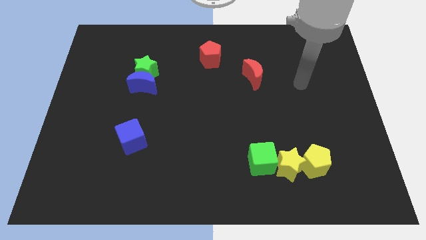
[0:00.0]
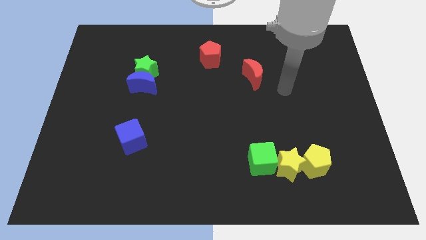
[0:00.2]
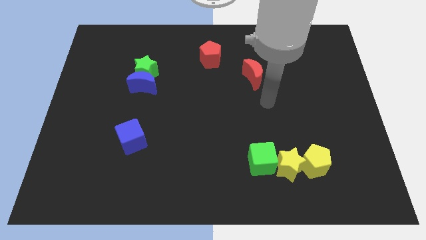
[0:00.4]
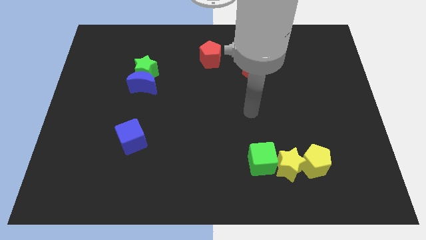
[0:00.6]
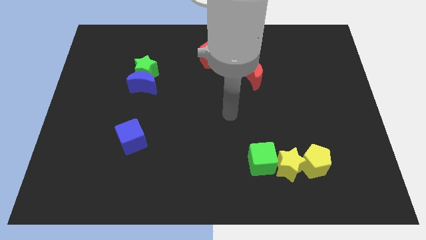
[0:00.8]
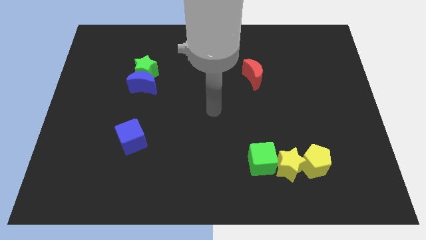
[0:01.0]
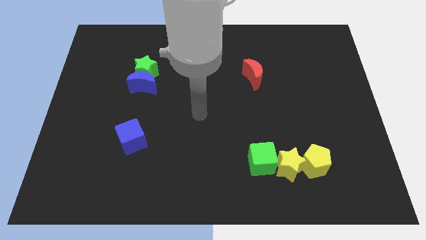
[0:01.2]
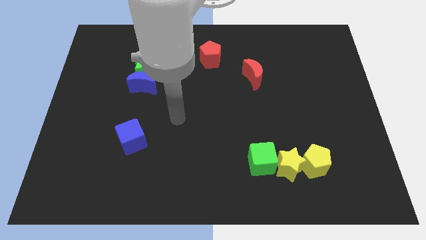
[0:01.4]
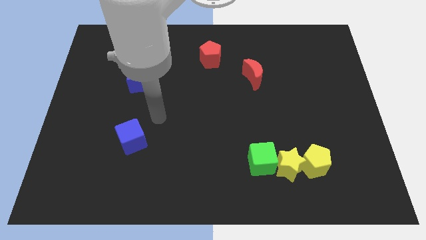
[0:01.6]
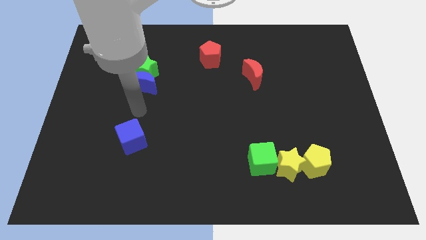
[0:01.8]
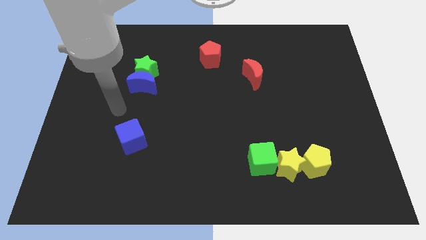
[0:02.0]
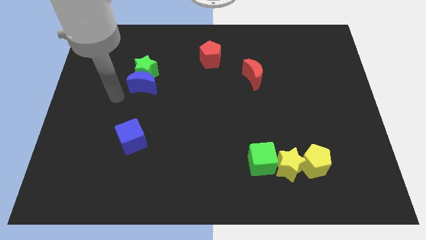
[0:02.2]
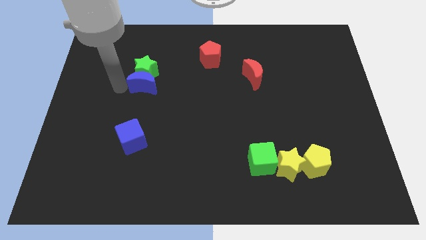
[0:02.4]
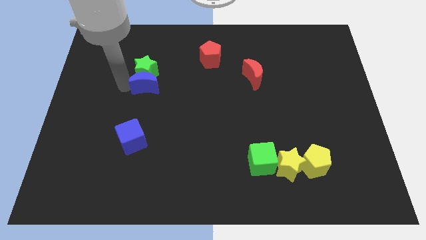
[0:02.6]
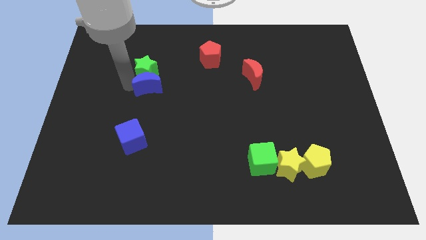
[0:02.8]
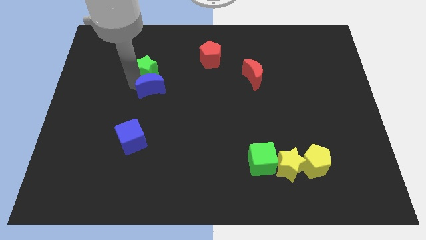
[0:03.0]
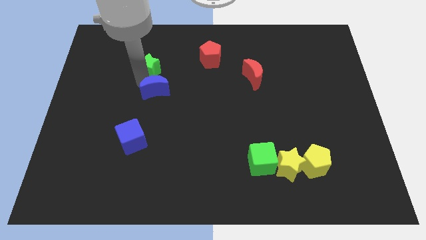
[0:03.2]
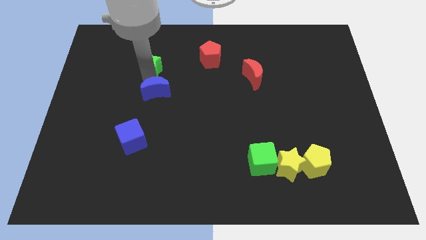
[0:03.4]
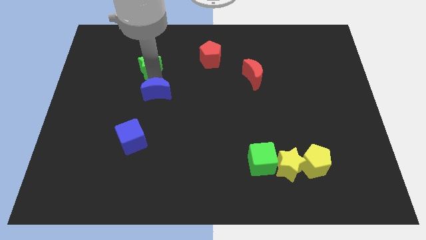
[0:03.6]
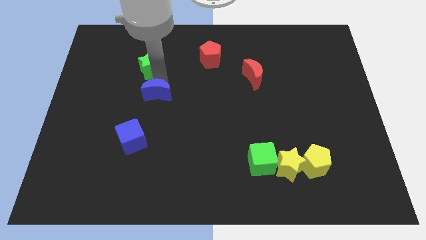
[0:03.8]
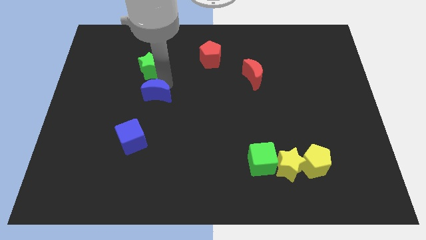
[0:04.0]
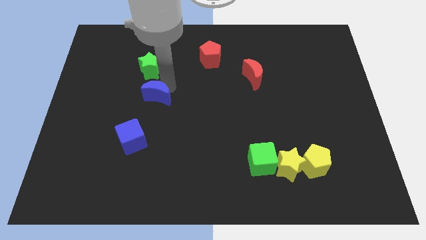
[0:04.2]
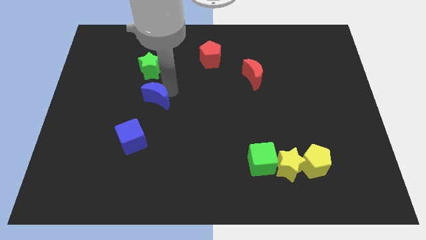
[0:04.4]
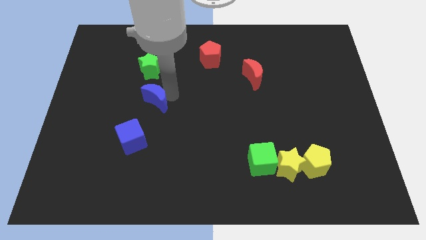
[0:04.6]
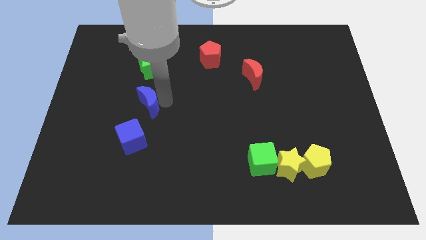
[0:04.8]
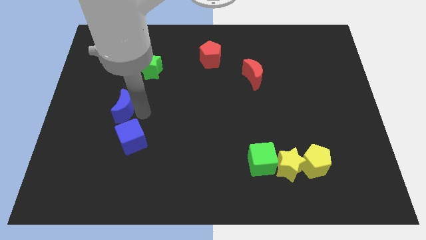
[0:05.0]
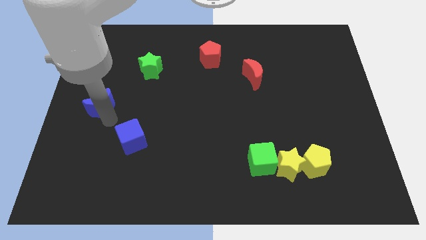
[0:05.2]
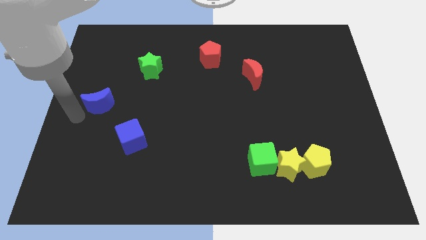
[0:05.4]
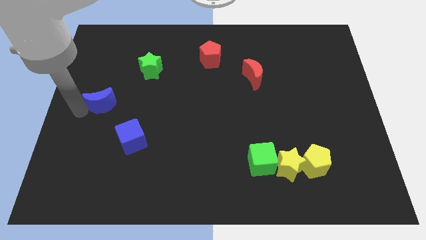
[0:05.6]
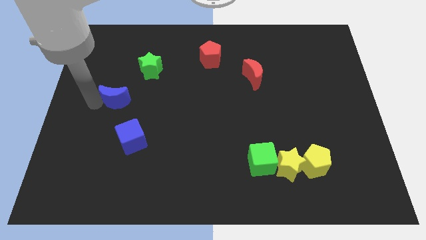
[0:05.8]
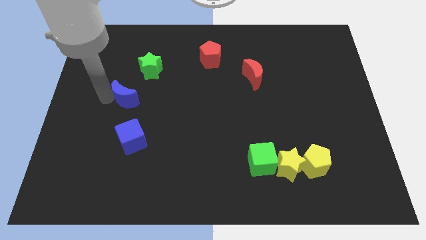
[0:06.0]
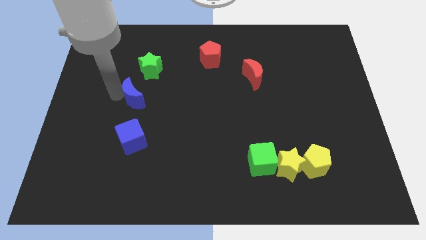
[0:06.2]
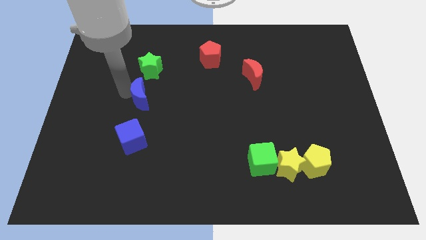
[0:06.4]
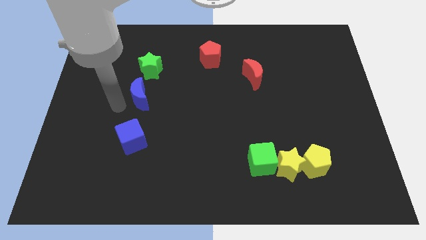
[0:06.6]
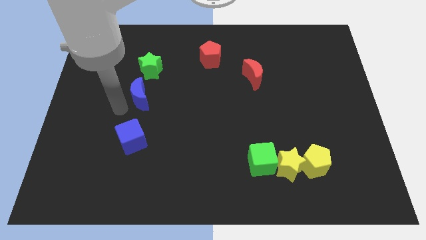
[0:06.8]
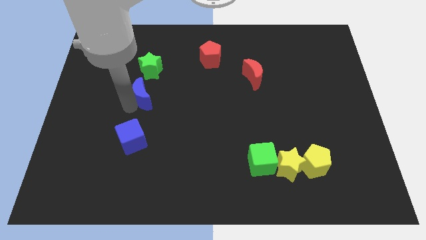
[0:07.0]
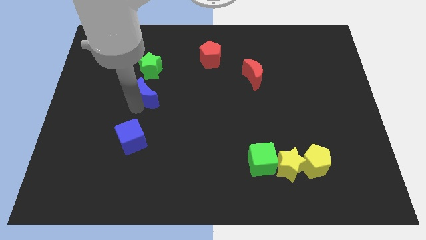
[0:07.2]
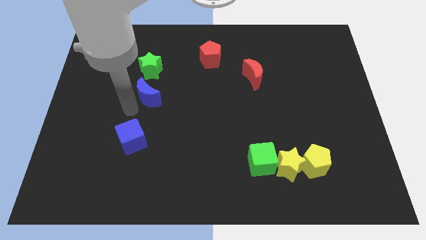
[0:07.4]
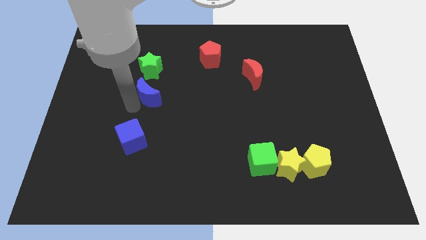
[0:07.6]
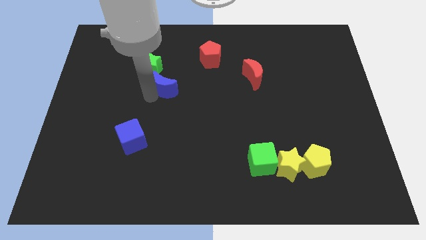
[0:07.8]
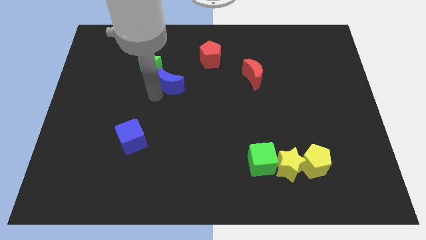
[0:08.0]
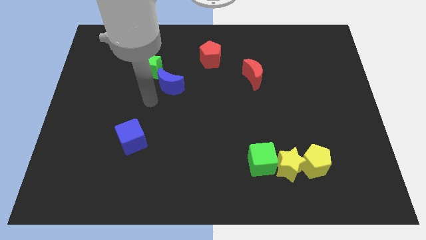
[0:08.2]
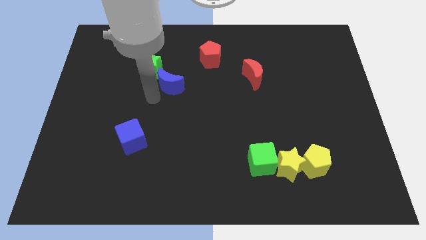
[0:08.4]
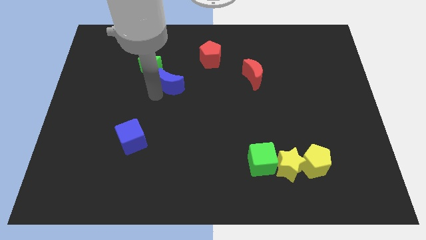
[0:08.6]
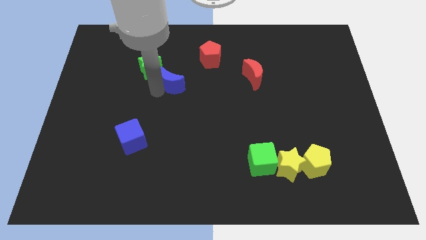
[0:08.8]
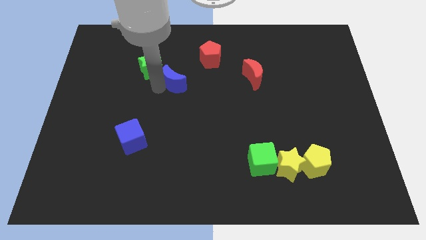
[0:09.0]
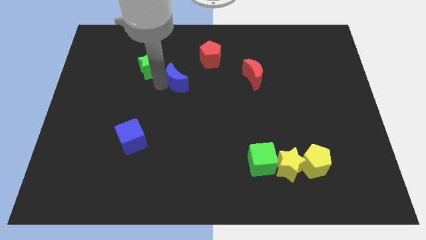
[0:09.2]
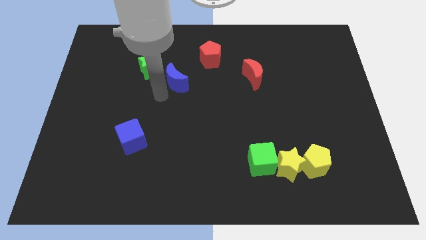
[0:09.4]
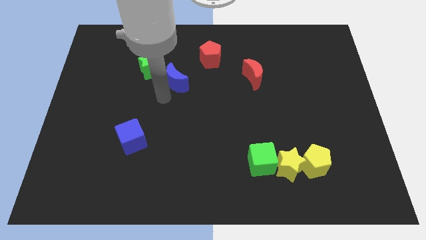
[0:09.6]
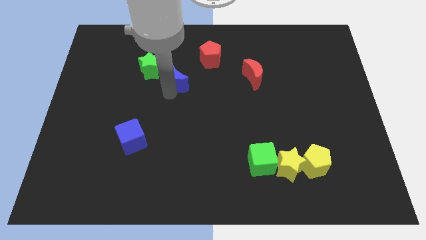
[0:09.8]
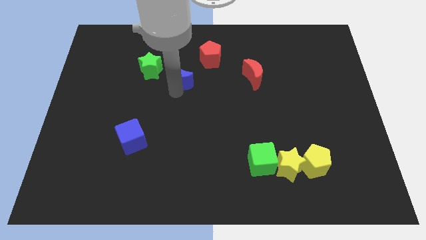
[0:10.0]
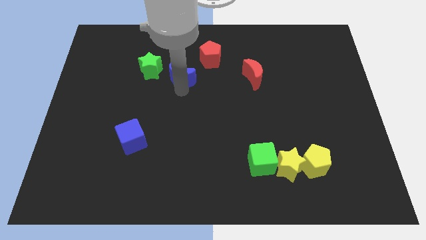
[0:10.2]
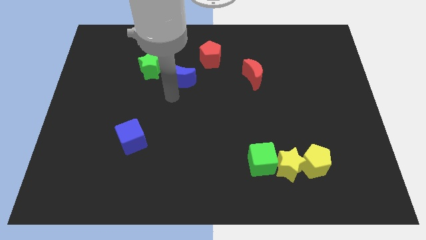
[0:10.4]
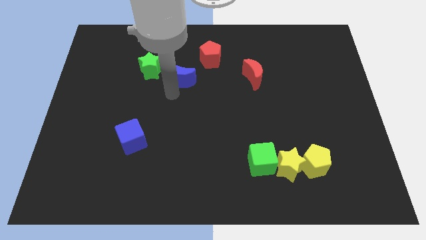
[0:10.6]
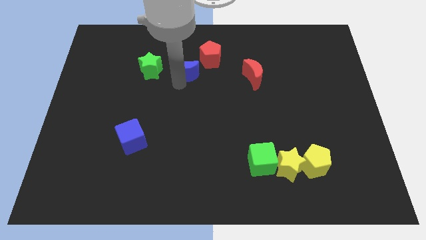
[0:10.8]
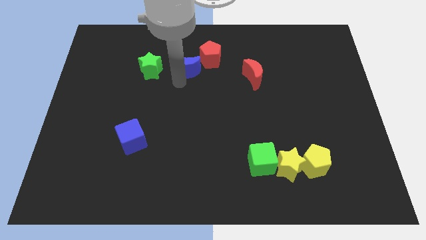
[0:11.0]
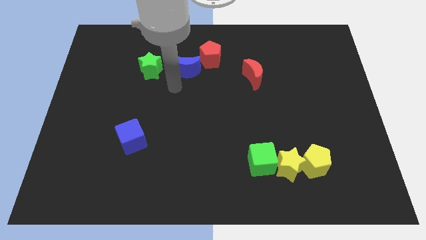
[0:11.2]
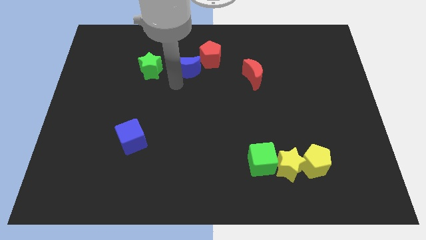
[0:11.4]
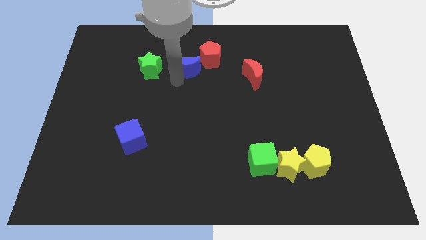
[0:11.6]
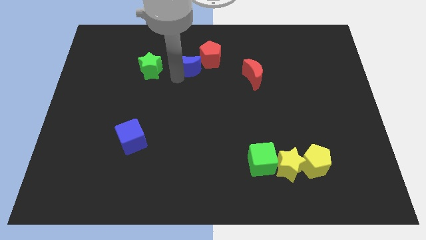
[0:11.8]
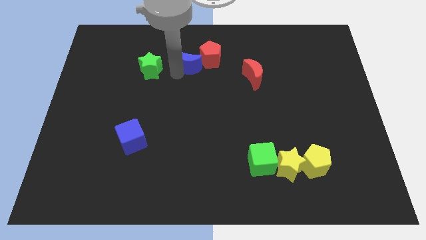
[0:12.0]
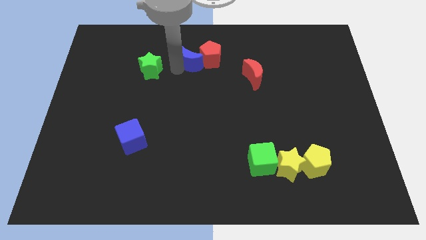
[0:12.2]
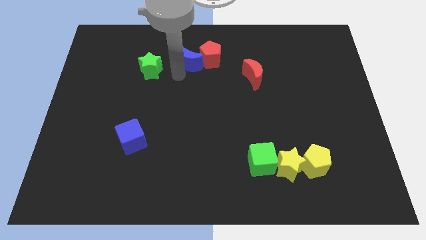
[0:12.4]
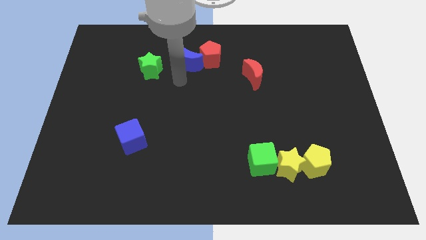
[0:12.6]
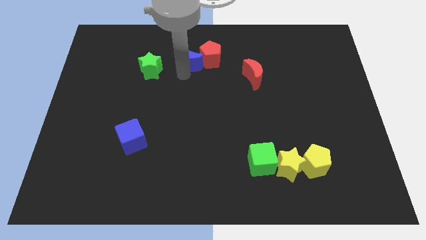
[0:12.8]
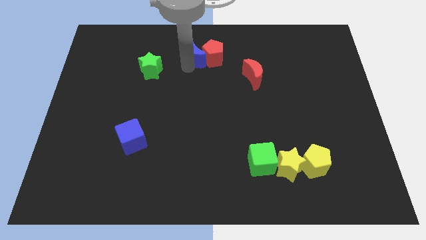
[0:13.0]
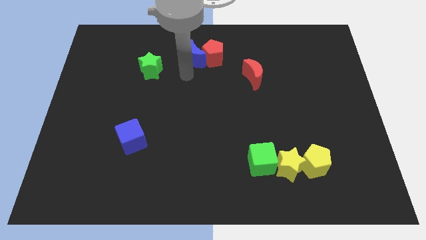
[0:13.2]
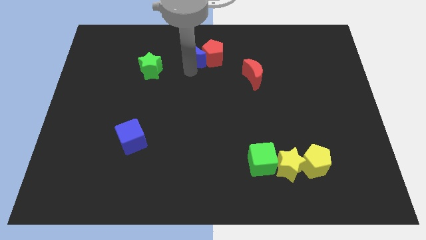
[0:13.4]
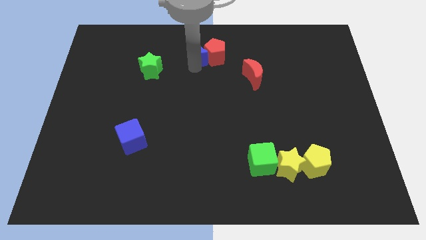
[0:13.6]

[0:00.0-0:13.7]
push the blue moon to the top side
